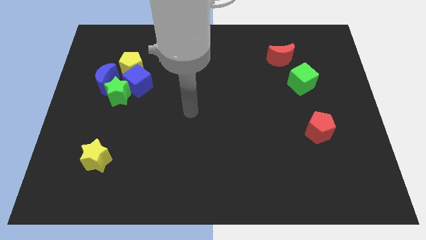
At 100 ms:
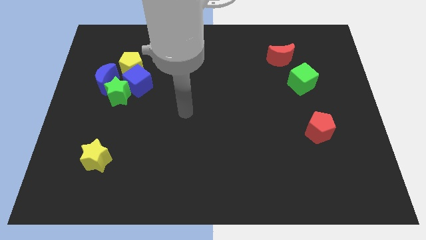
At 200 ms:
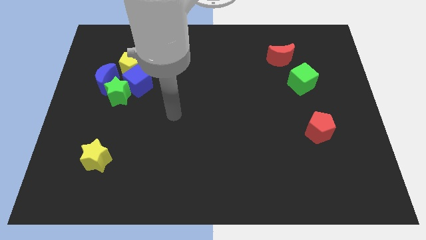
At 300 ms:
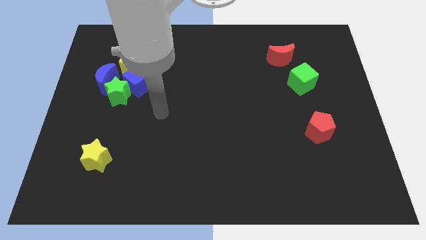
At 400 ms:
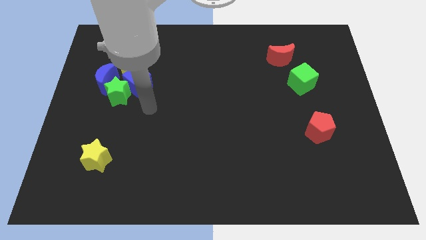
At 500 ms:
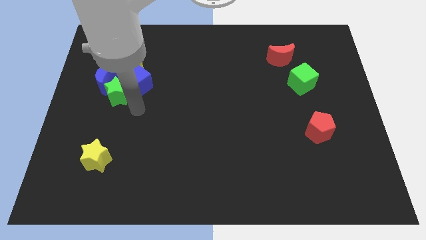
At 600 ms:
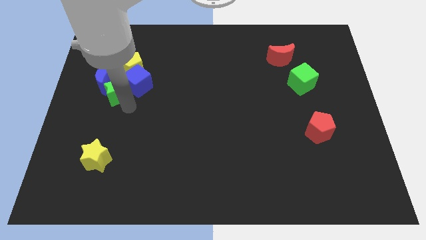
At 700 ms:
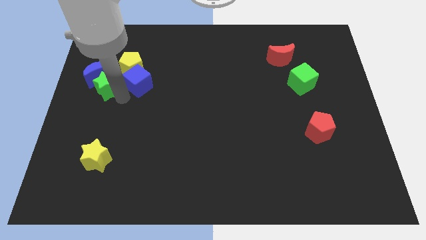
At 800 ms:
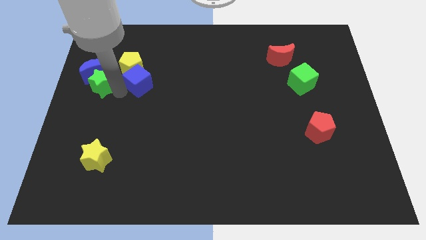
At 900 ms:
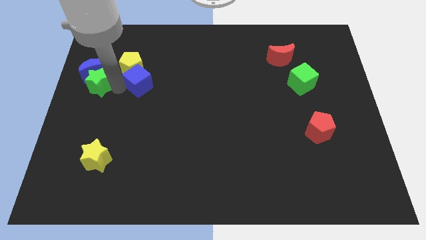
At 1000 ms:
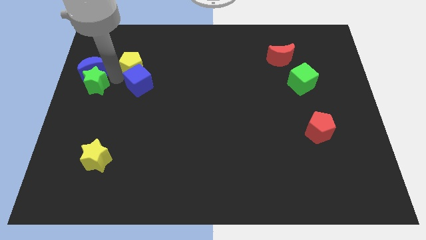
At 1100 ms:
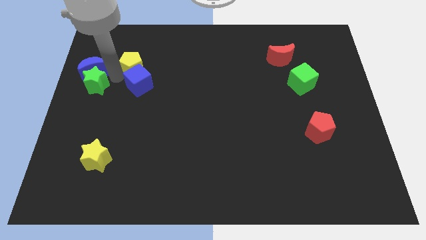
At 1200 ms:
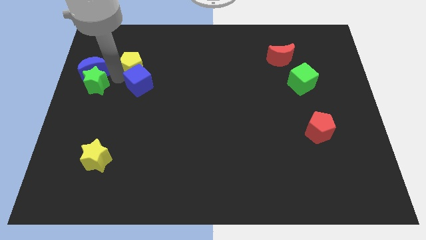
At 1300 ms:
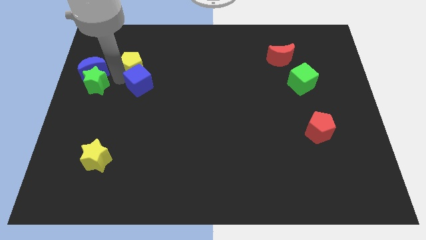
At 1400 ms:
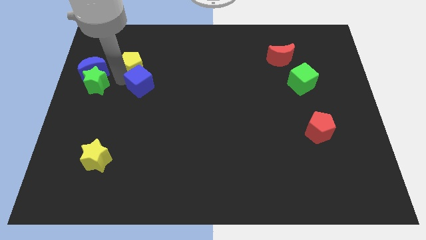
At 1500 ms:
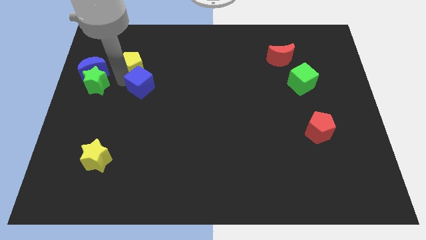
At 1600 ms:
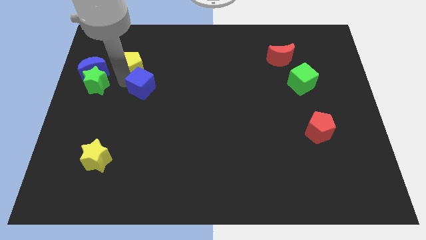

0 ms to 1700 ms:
move the blue cube away from the group of blocks

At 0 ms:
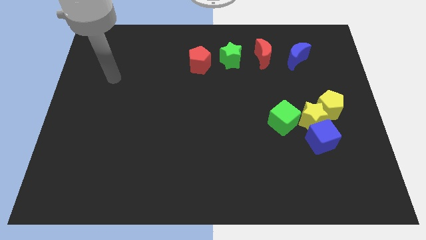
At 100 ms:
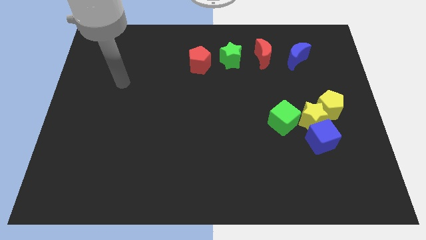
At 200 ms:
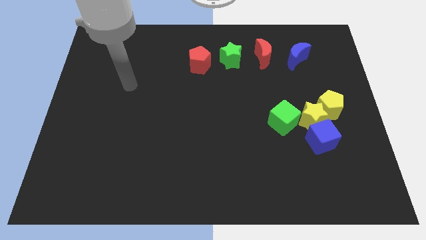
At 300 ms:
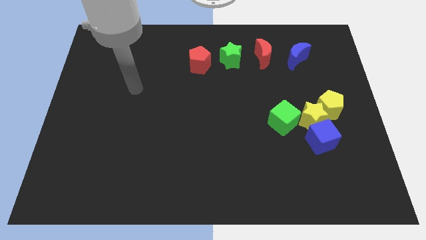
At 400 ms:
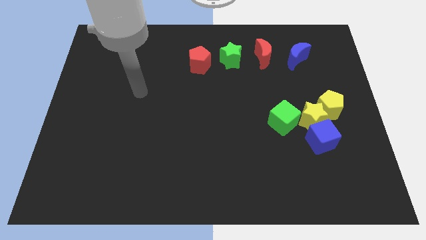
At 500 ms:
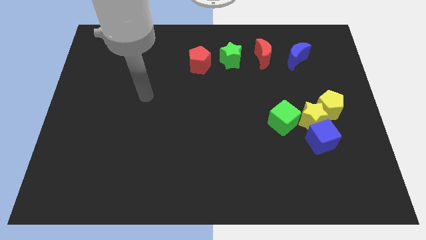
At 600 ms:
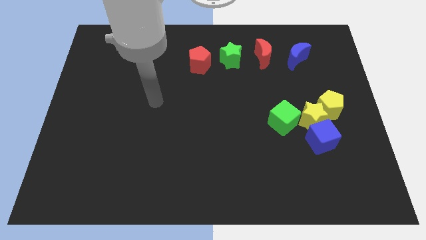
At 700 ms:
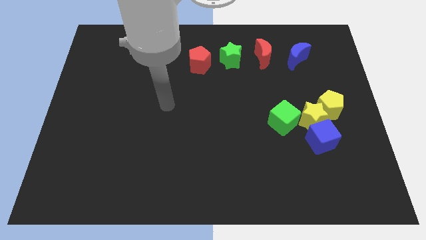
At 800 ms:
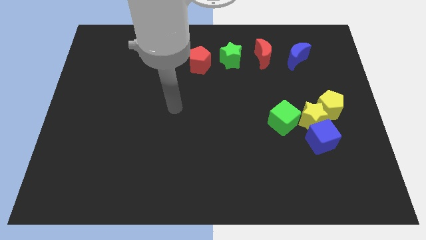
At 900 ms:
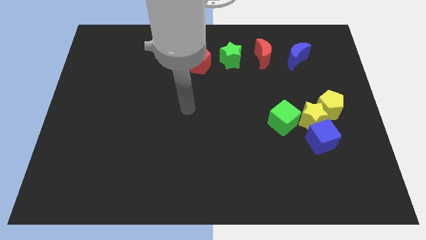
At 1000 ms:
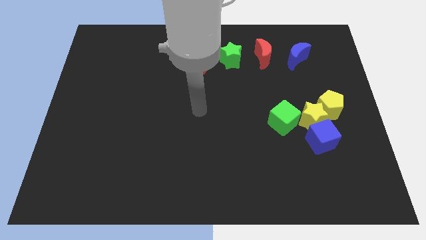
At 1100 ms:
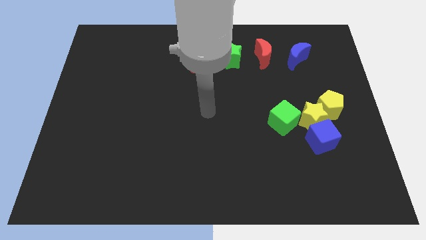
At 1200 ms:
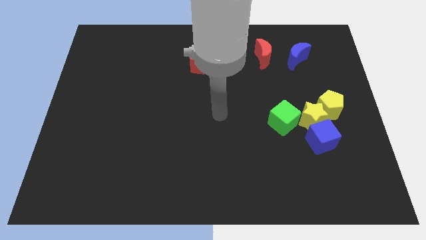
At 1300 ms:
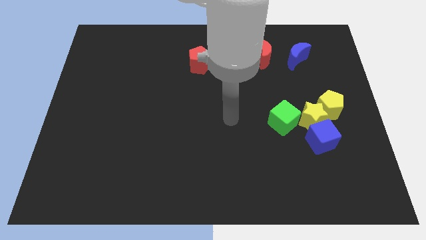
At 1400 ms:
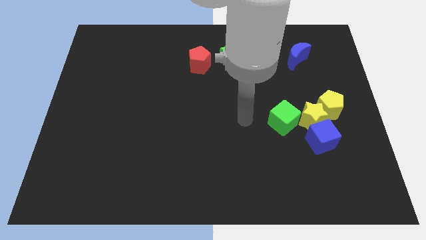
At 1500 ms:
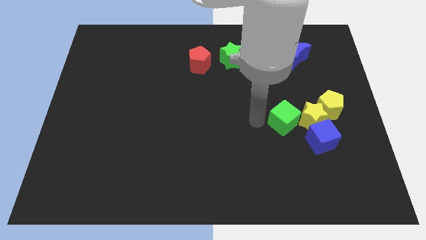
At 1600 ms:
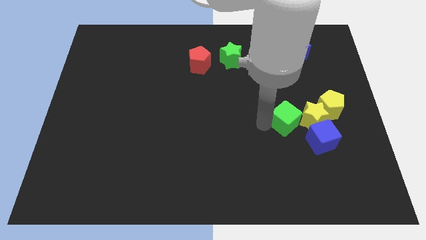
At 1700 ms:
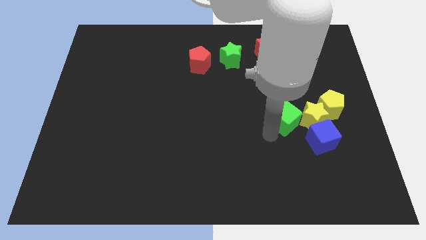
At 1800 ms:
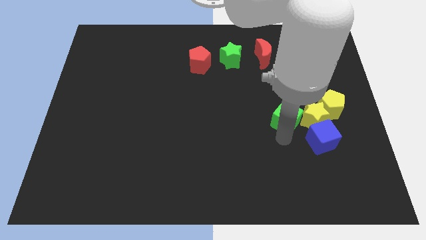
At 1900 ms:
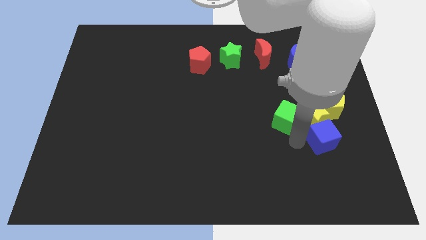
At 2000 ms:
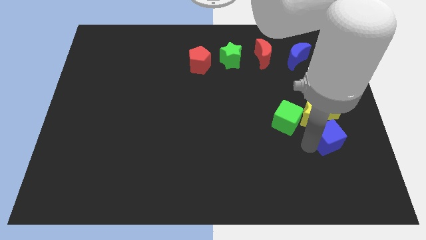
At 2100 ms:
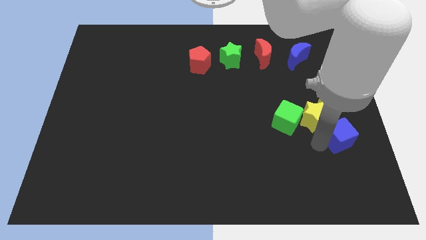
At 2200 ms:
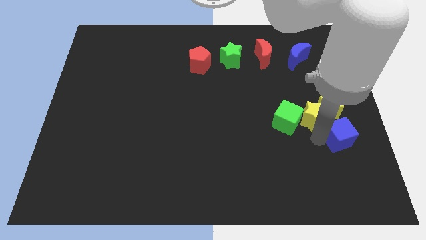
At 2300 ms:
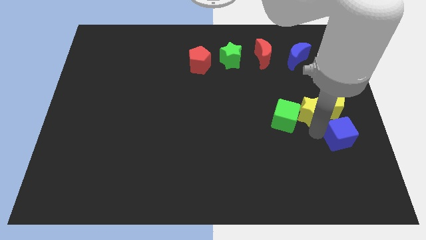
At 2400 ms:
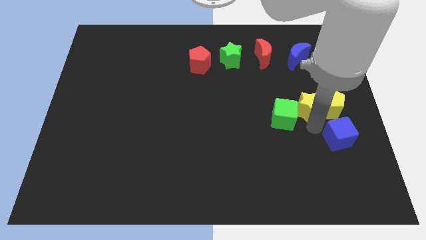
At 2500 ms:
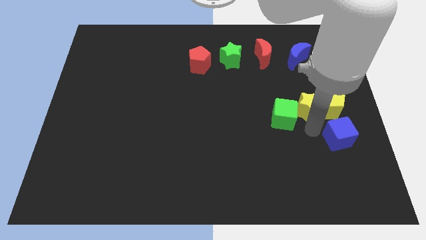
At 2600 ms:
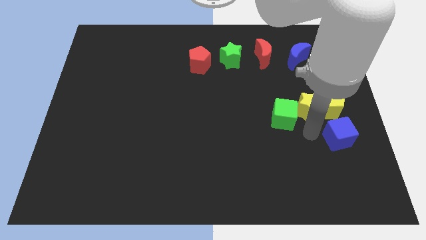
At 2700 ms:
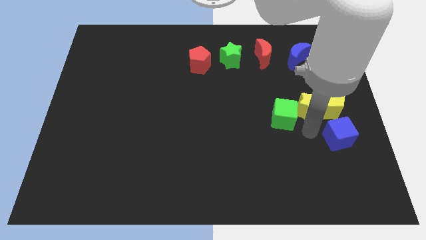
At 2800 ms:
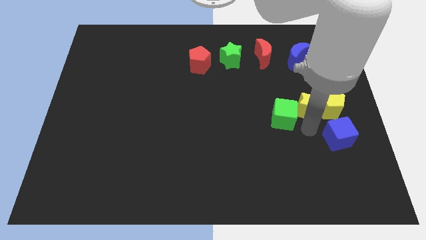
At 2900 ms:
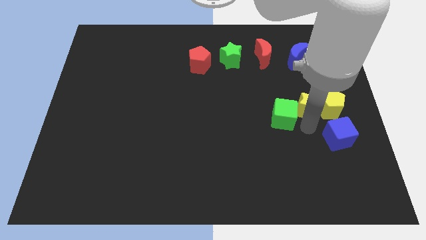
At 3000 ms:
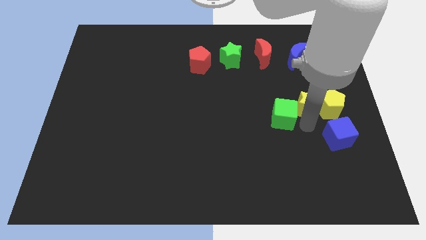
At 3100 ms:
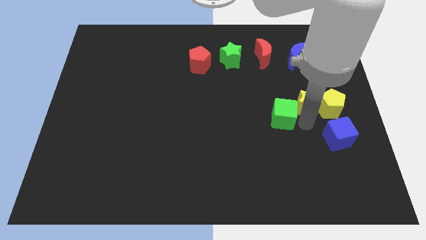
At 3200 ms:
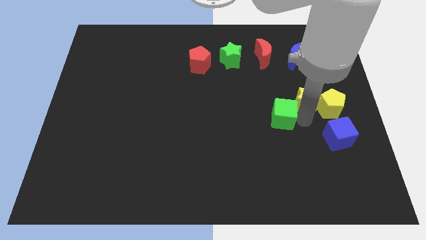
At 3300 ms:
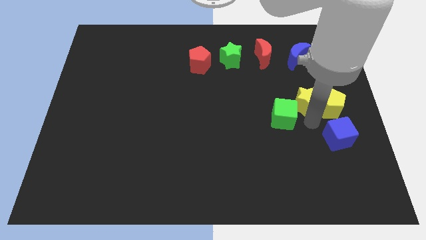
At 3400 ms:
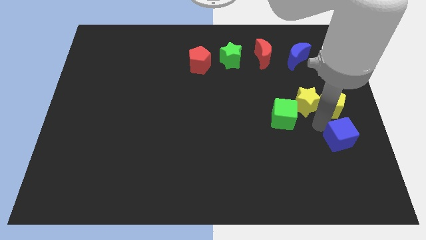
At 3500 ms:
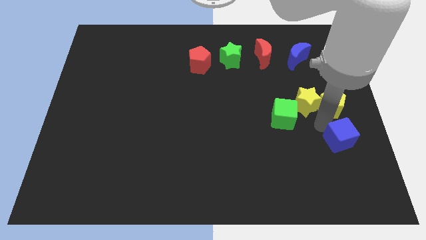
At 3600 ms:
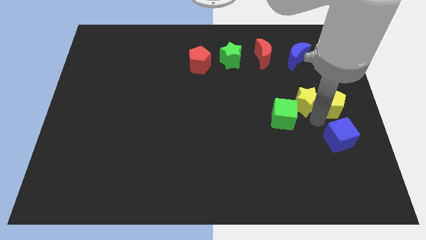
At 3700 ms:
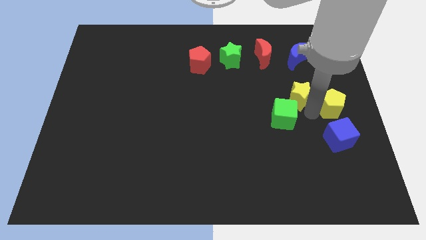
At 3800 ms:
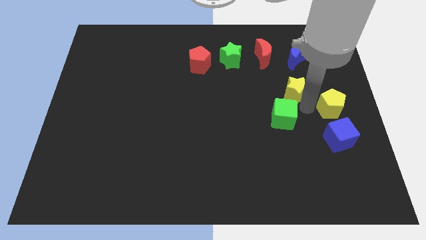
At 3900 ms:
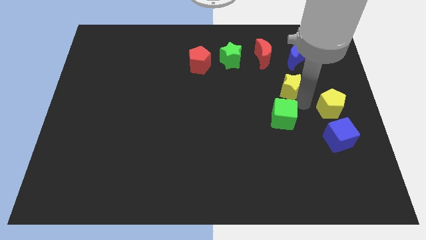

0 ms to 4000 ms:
separate the yellow star from the group of blocks

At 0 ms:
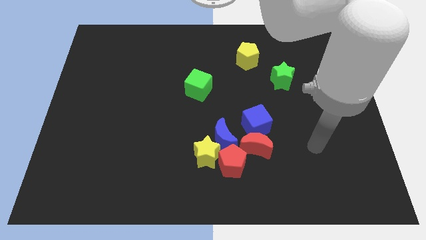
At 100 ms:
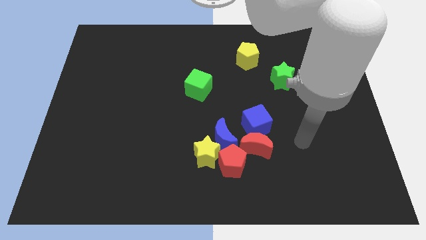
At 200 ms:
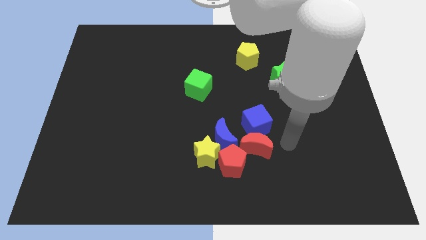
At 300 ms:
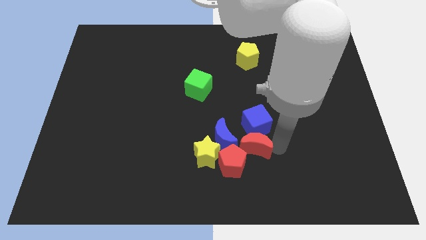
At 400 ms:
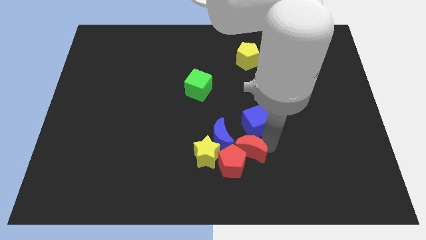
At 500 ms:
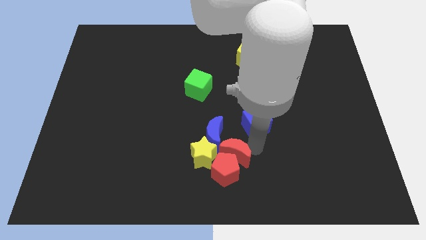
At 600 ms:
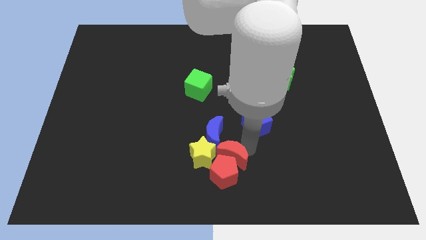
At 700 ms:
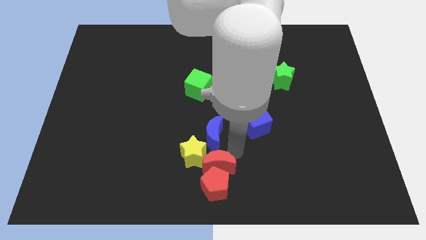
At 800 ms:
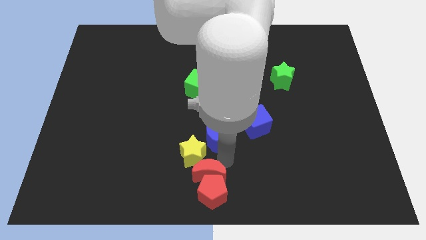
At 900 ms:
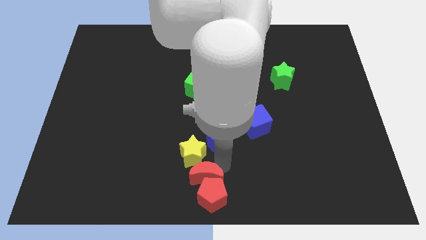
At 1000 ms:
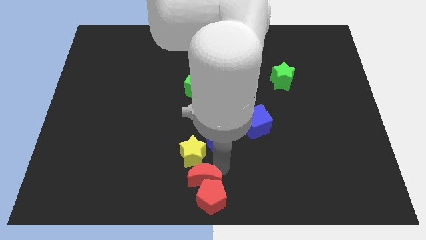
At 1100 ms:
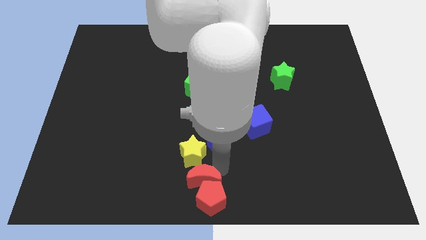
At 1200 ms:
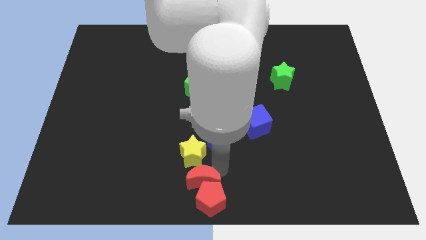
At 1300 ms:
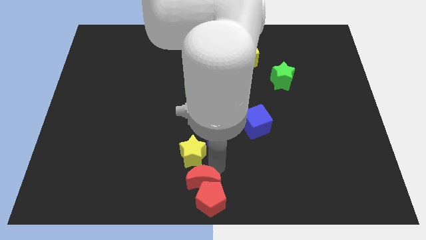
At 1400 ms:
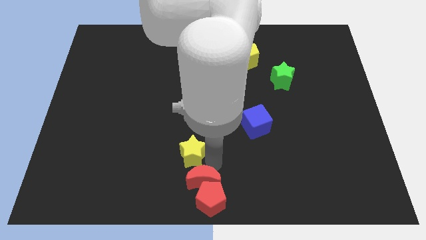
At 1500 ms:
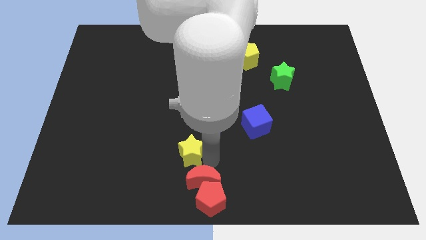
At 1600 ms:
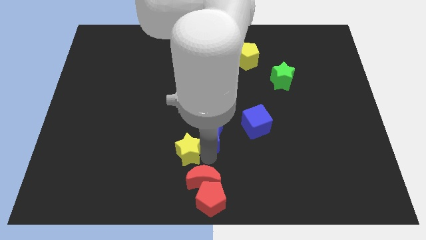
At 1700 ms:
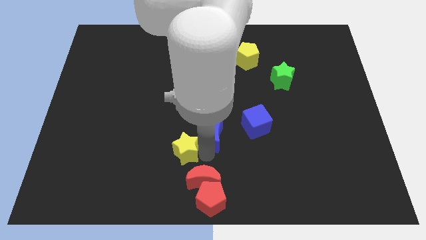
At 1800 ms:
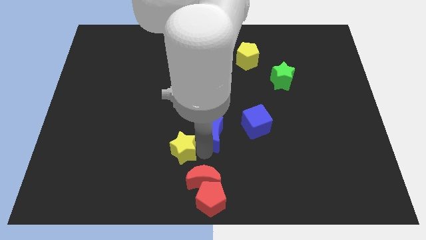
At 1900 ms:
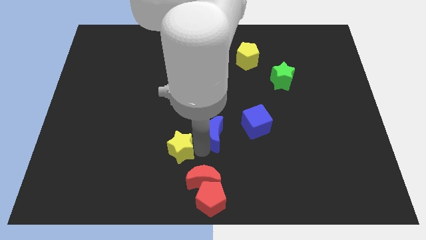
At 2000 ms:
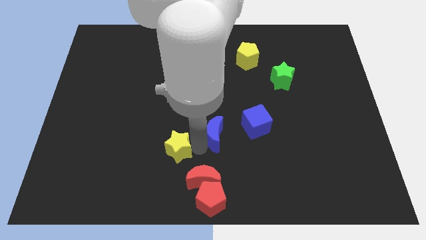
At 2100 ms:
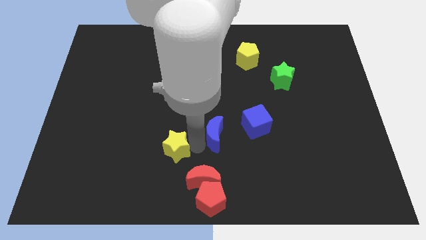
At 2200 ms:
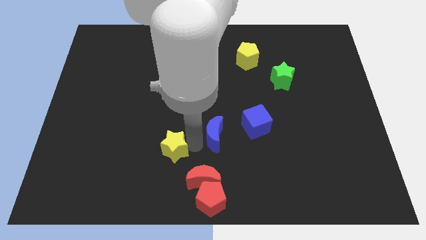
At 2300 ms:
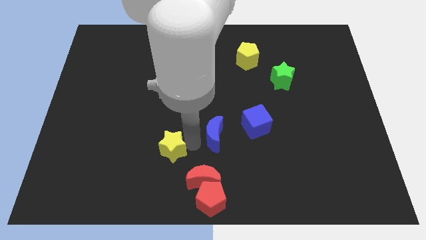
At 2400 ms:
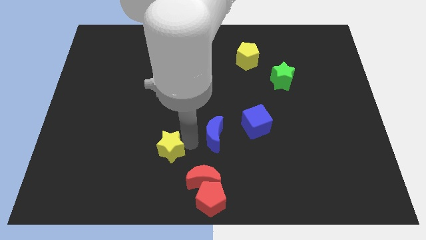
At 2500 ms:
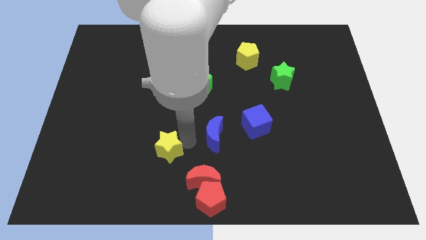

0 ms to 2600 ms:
pull the yellow star apart from the blue moon and red pentagon

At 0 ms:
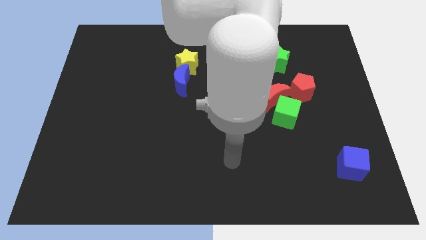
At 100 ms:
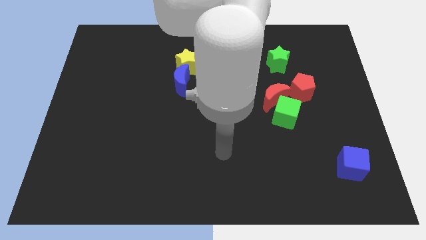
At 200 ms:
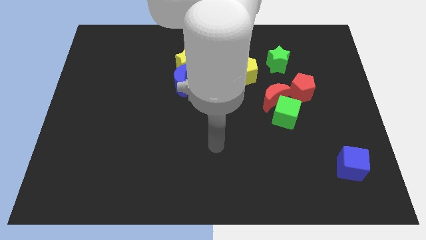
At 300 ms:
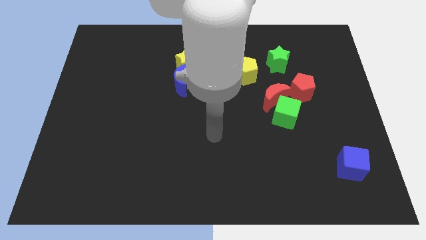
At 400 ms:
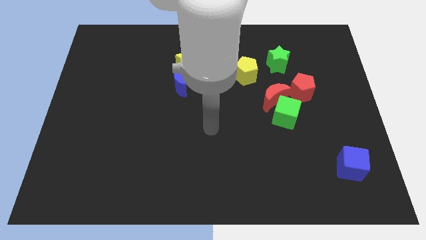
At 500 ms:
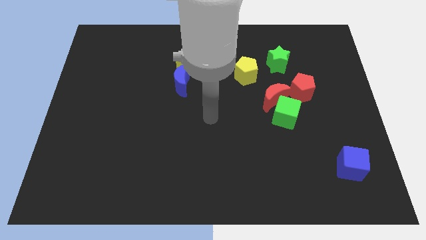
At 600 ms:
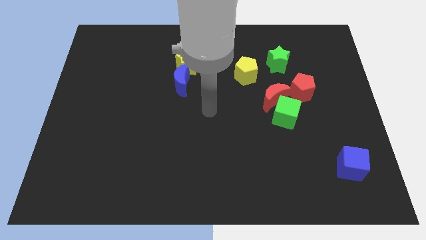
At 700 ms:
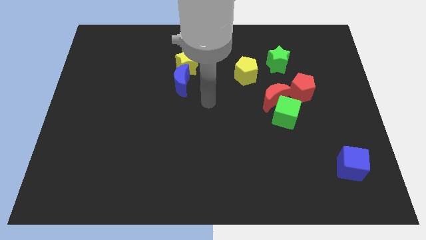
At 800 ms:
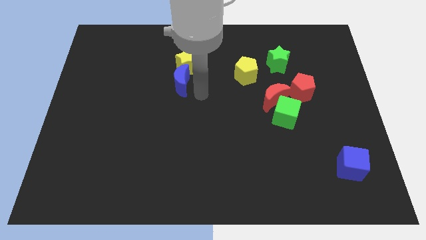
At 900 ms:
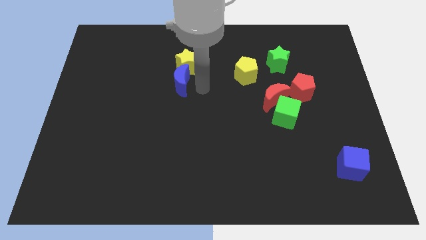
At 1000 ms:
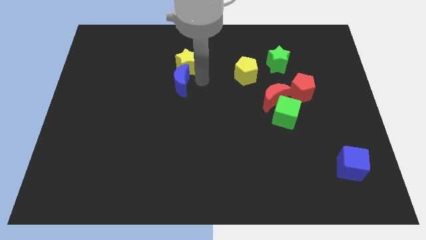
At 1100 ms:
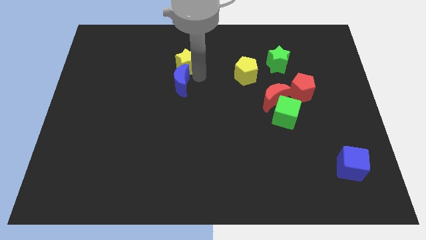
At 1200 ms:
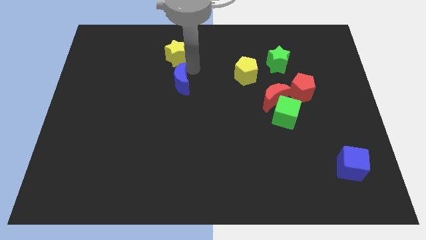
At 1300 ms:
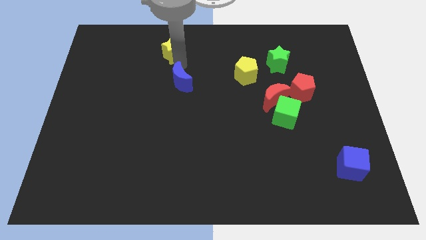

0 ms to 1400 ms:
pull the blue moon apart from the yellow star
